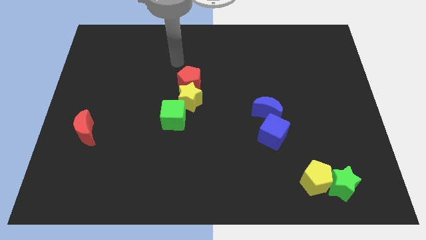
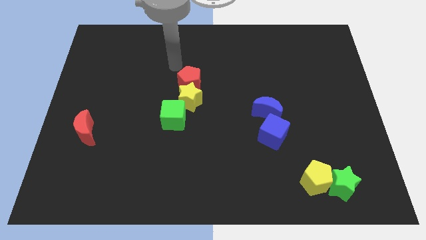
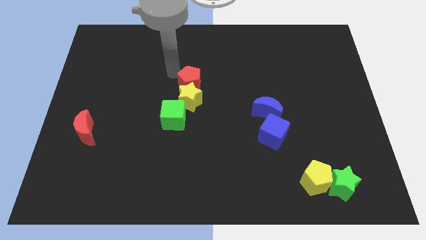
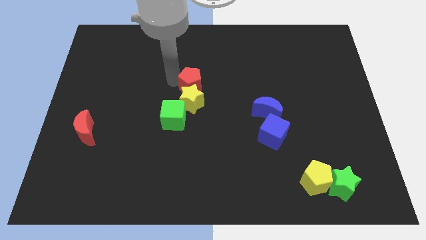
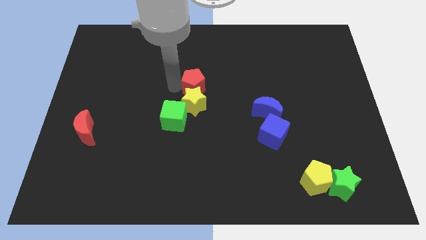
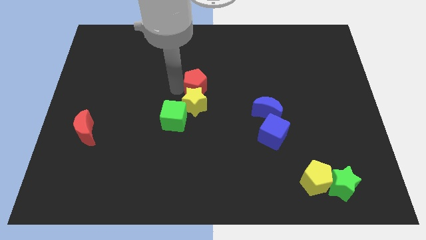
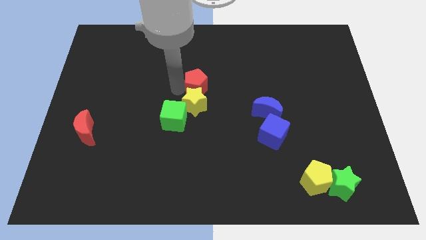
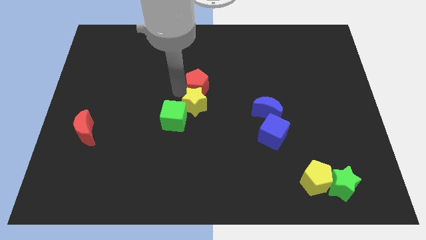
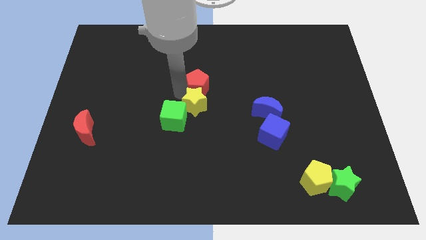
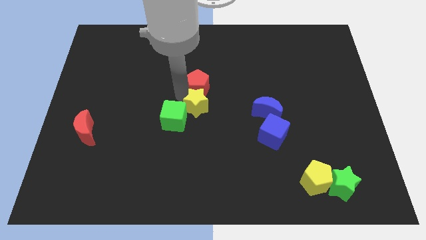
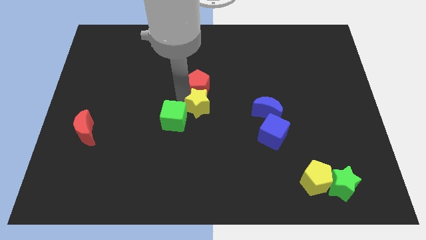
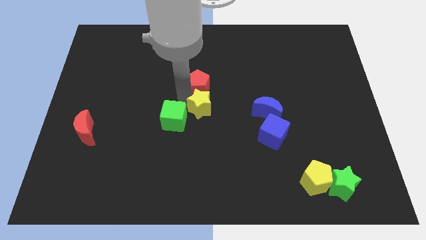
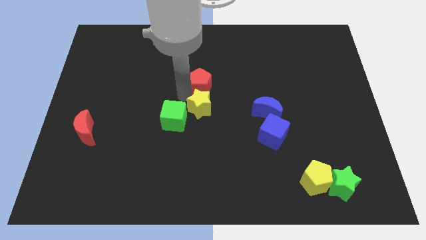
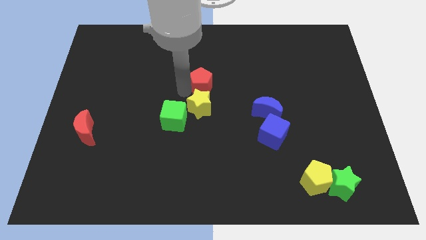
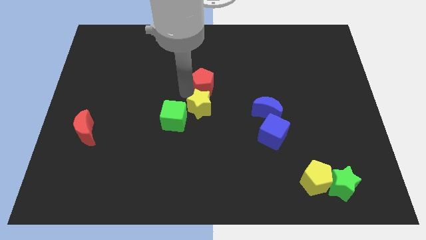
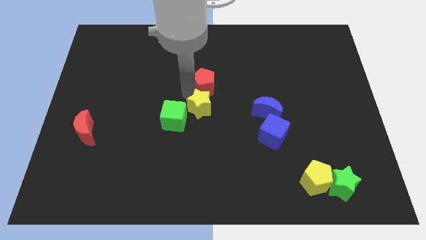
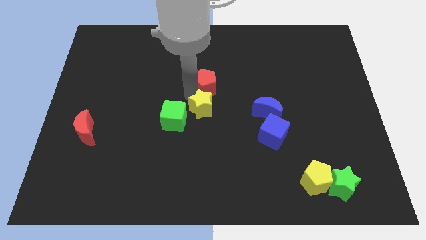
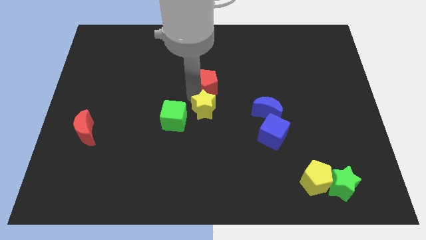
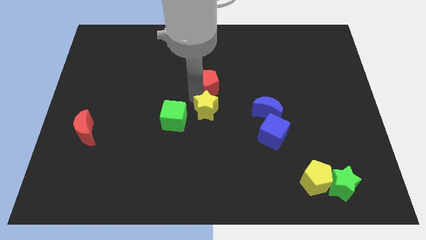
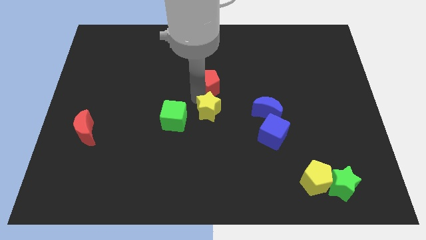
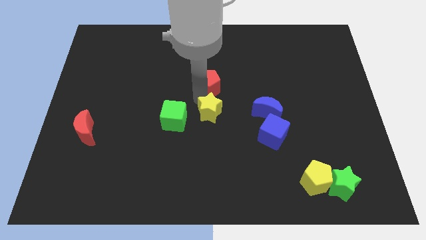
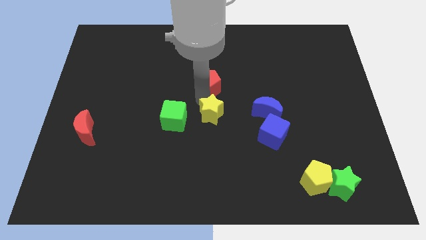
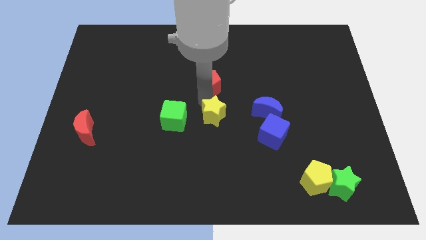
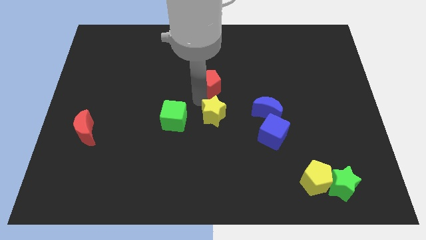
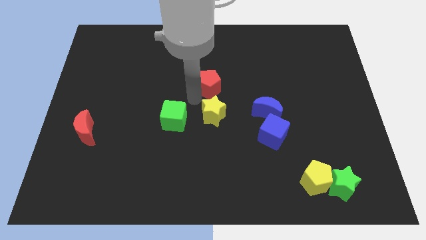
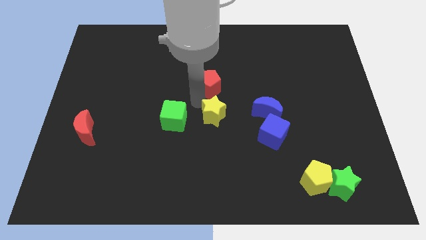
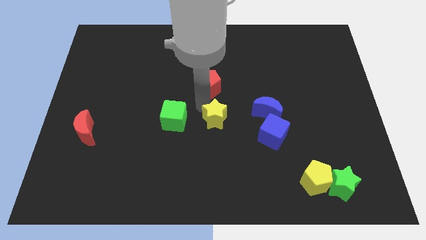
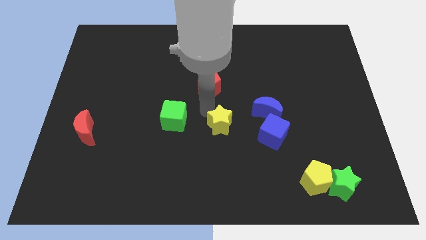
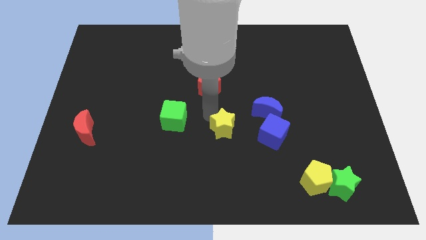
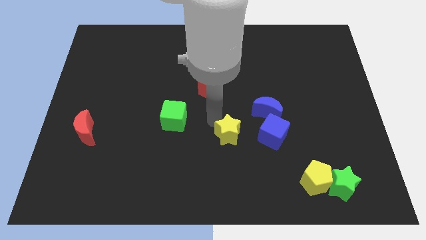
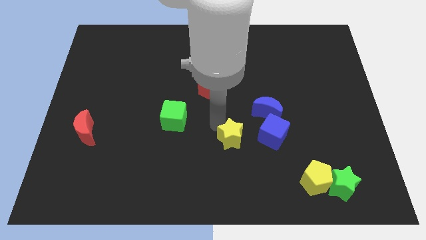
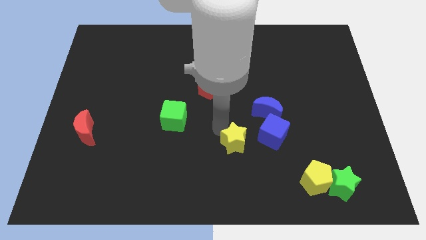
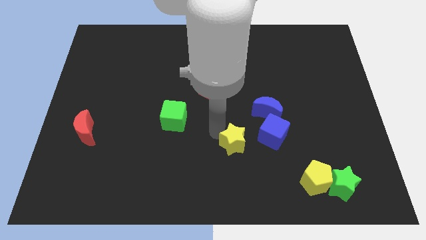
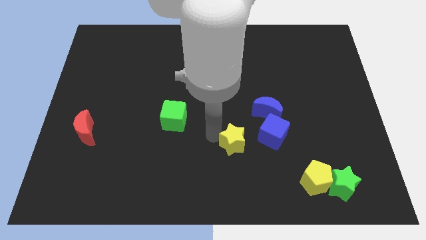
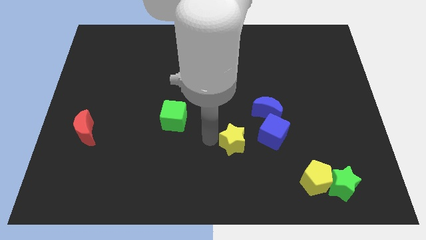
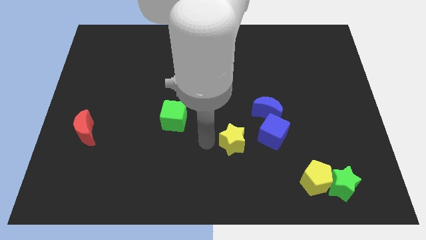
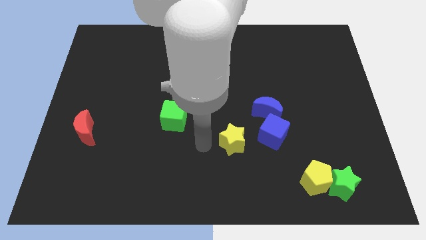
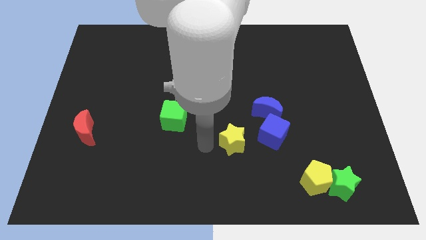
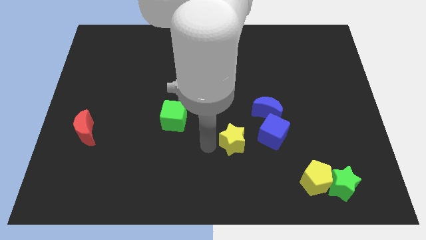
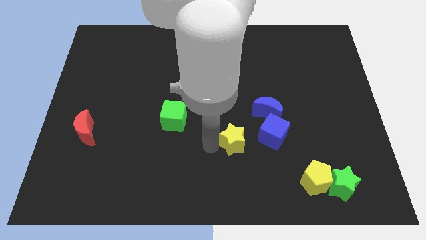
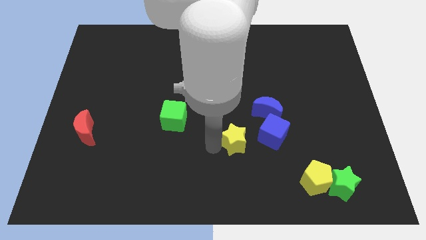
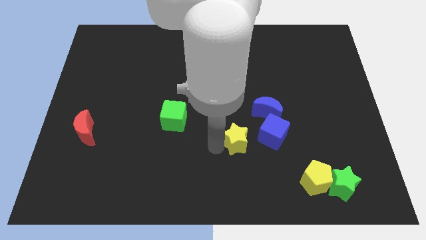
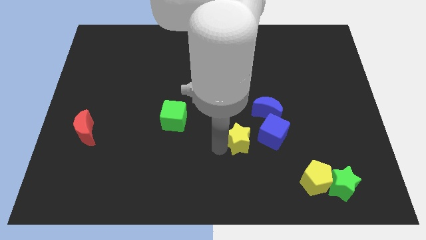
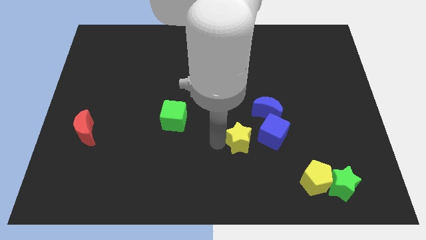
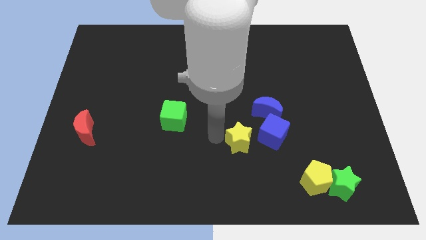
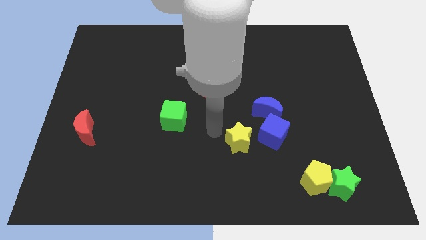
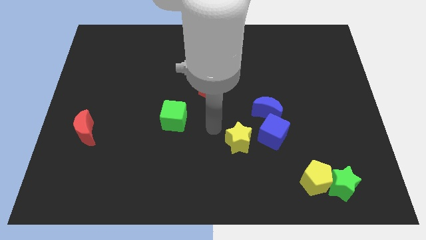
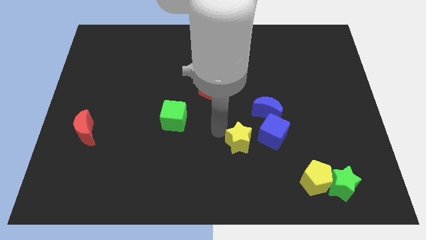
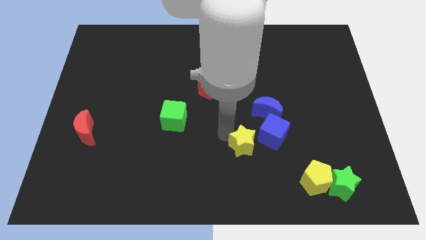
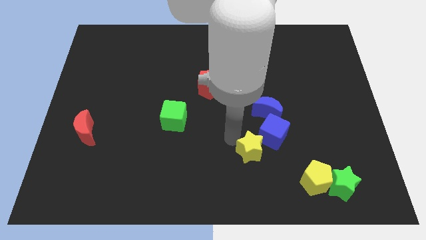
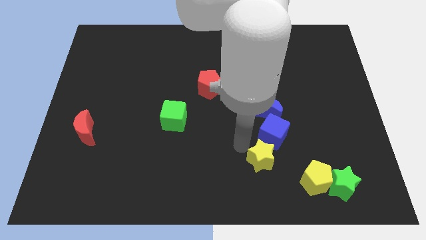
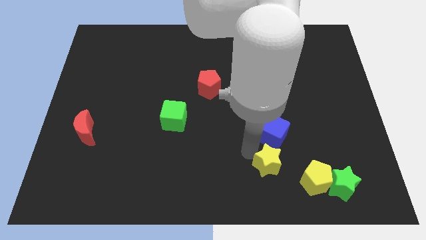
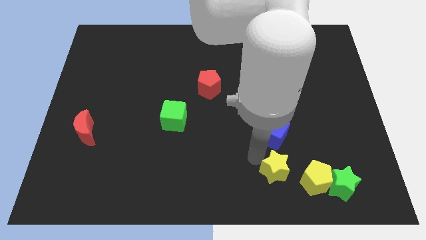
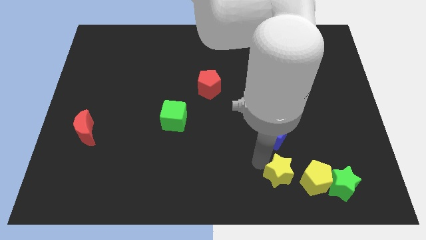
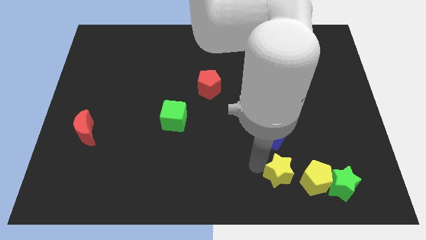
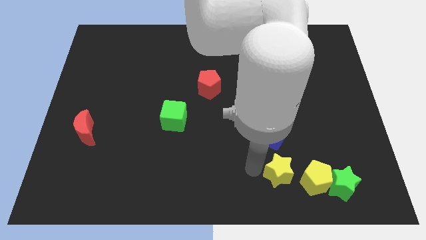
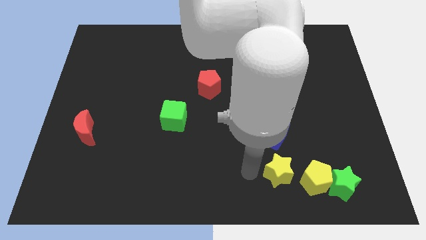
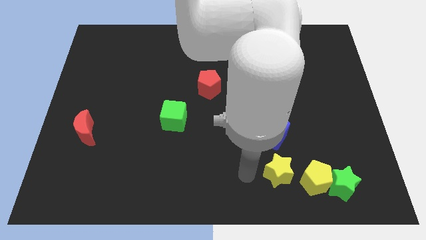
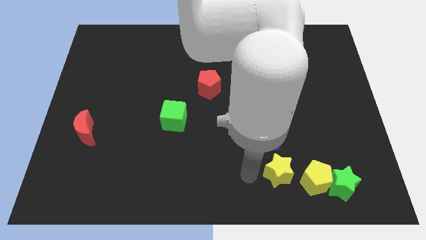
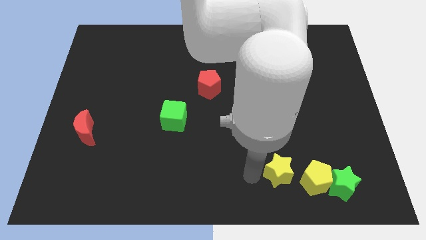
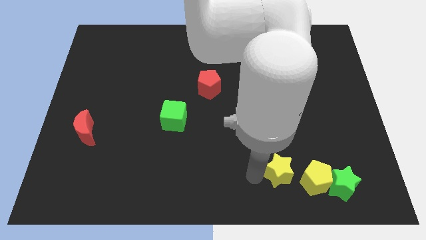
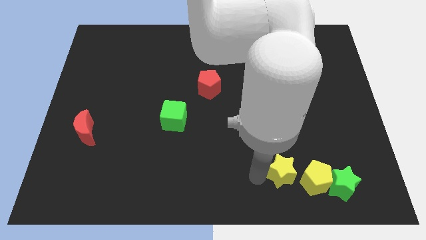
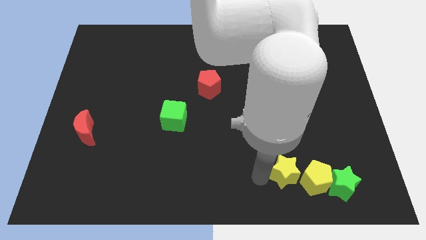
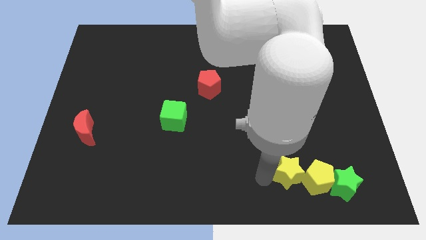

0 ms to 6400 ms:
slide the yellow star close to the yellow pentagon
